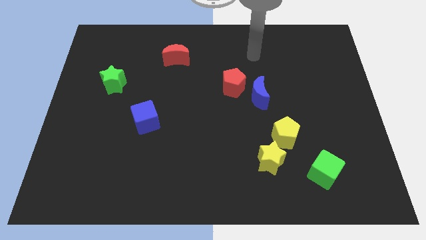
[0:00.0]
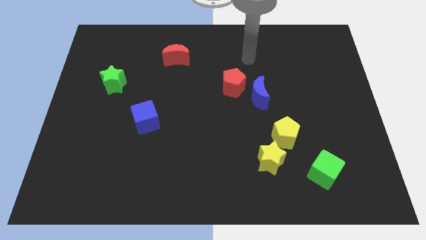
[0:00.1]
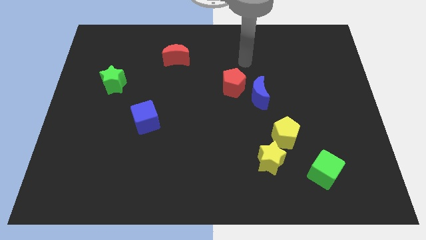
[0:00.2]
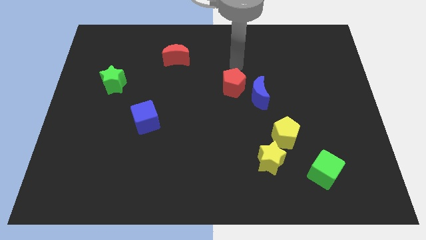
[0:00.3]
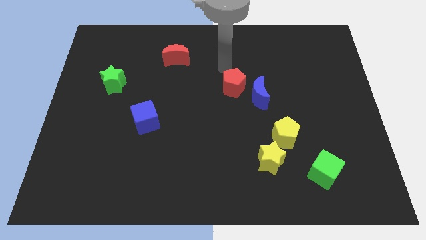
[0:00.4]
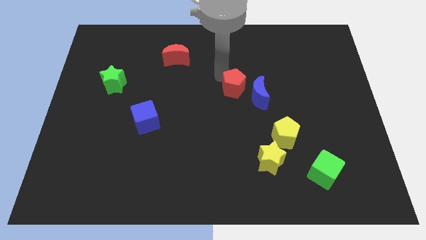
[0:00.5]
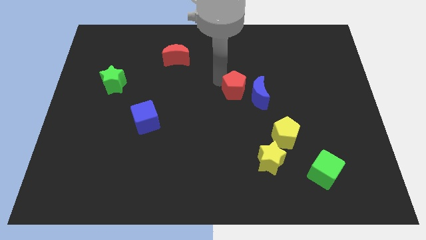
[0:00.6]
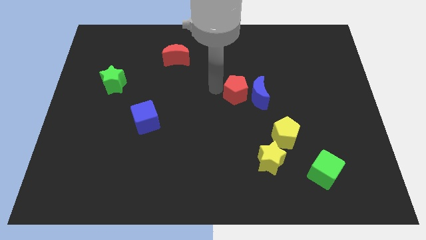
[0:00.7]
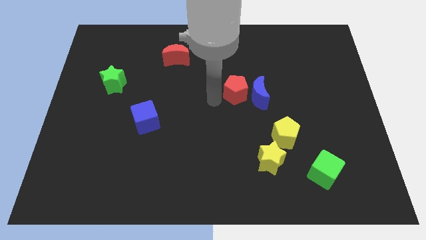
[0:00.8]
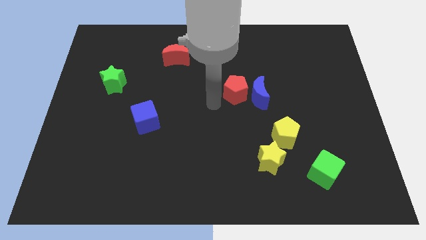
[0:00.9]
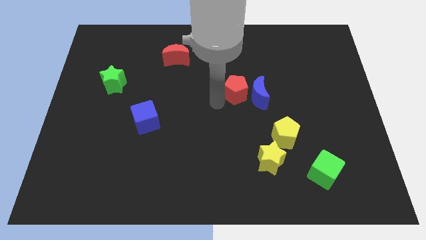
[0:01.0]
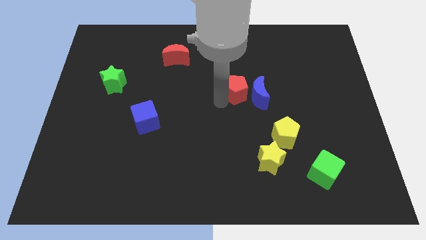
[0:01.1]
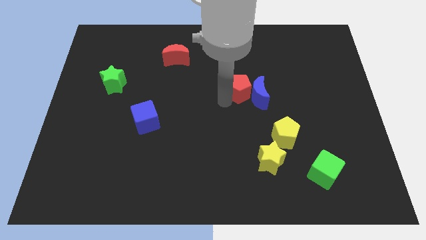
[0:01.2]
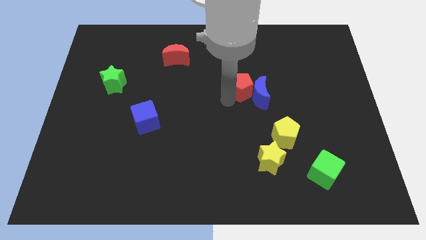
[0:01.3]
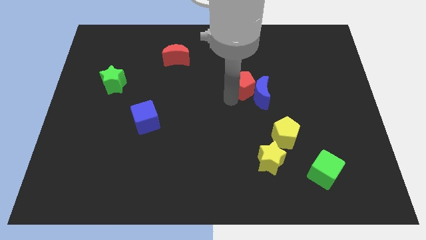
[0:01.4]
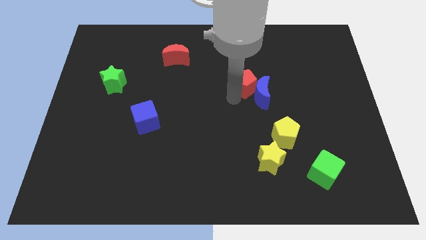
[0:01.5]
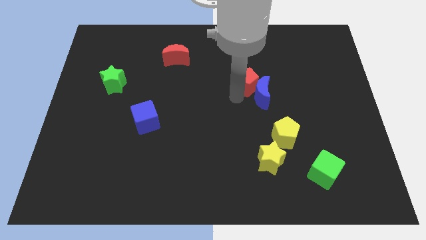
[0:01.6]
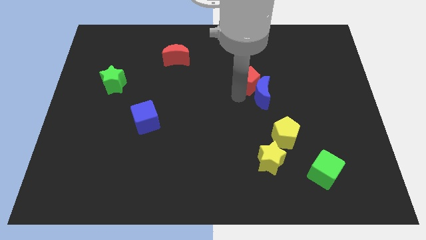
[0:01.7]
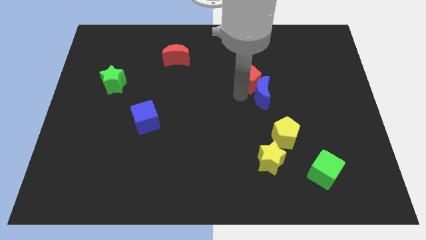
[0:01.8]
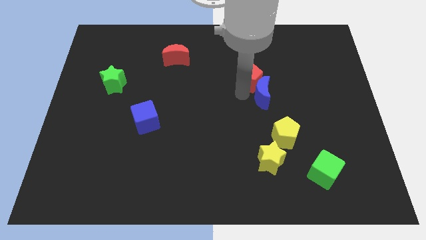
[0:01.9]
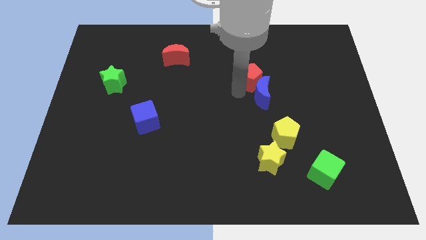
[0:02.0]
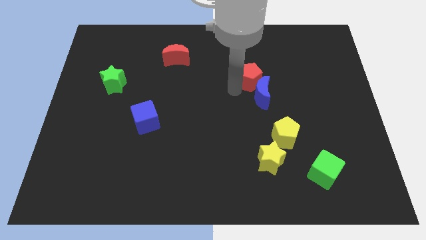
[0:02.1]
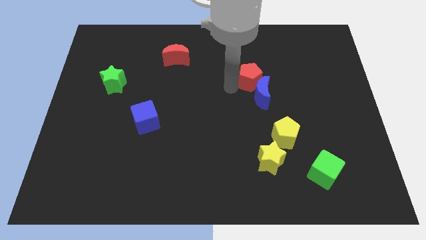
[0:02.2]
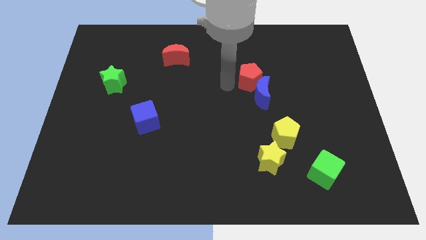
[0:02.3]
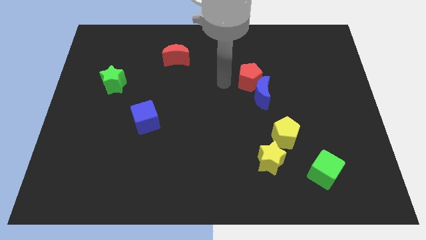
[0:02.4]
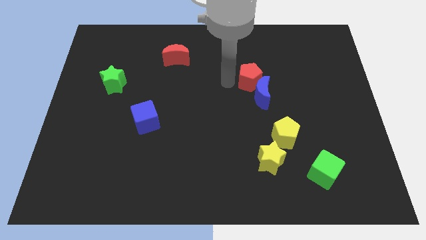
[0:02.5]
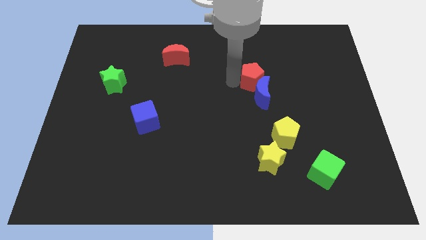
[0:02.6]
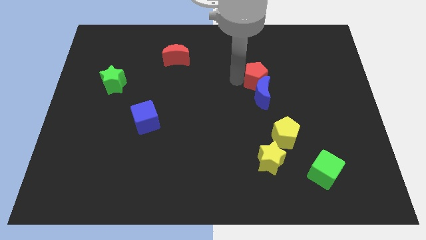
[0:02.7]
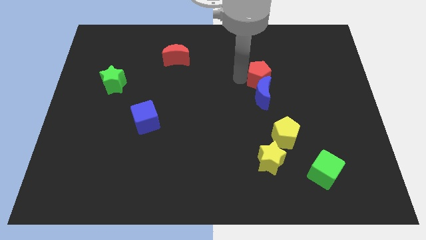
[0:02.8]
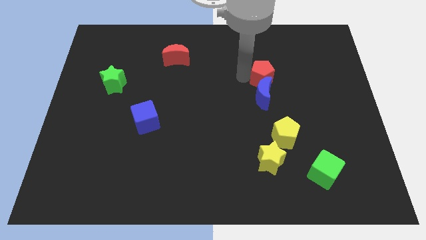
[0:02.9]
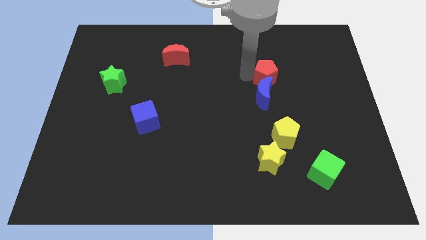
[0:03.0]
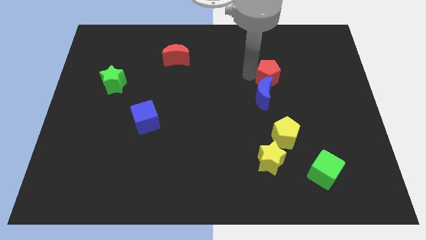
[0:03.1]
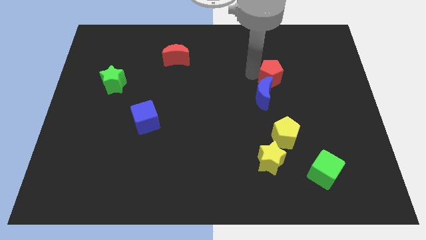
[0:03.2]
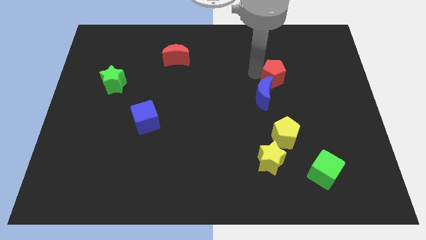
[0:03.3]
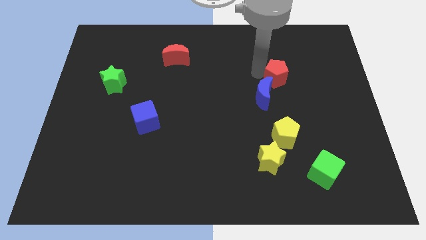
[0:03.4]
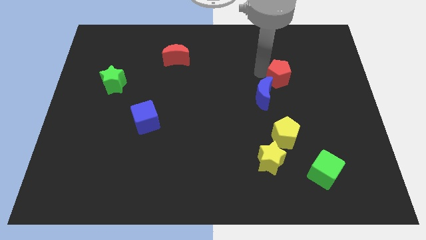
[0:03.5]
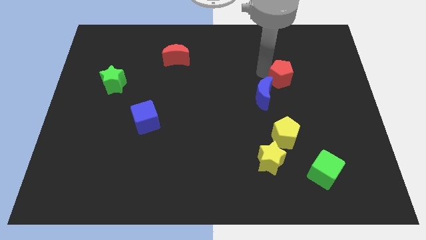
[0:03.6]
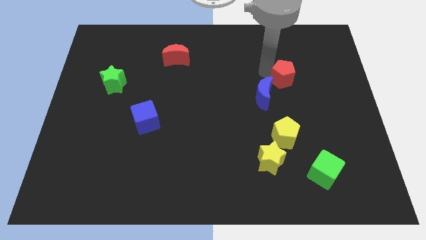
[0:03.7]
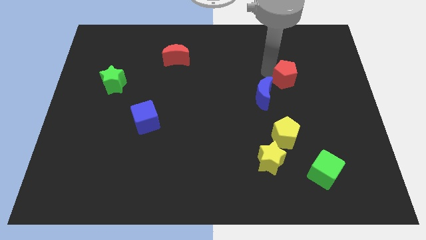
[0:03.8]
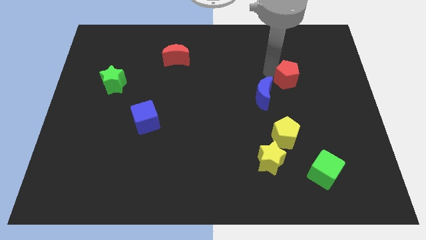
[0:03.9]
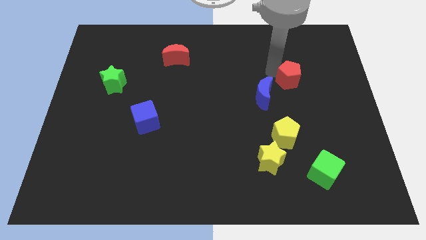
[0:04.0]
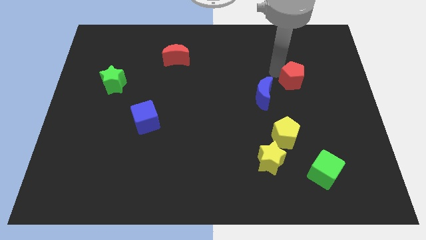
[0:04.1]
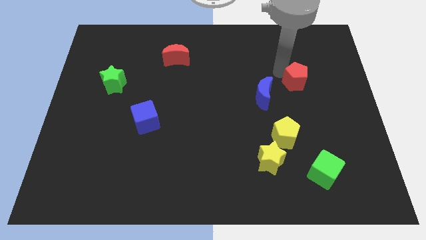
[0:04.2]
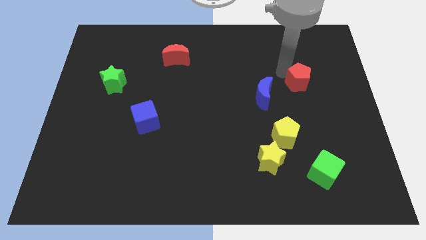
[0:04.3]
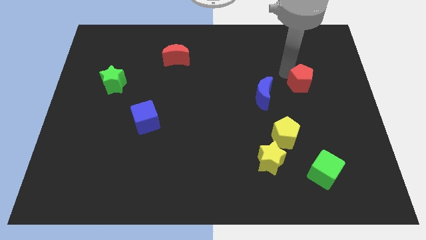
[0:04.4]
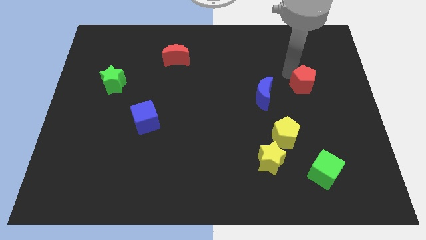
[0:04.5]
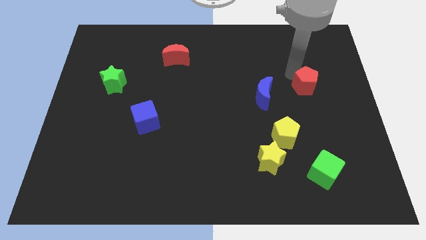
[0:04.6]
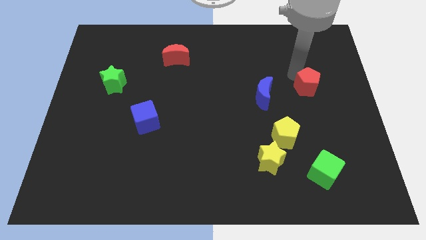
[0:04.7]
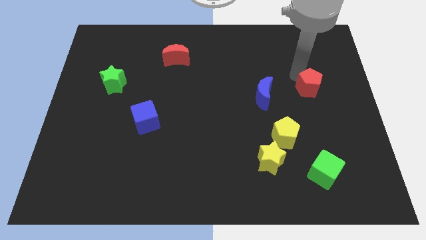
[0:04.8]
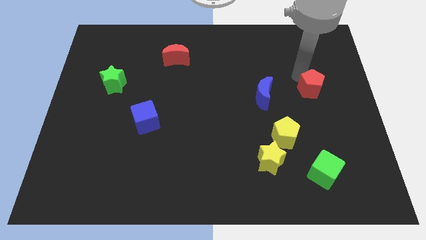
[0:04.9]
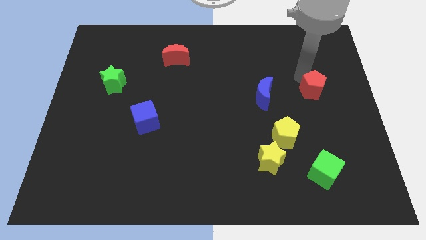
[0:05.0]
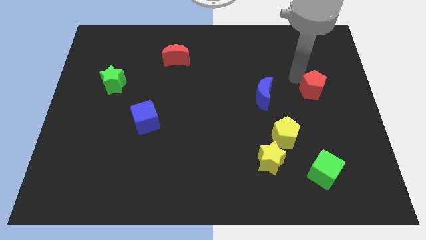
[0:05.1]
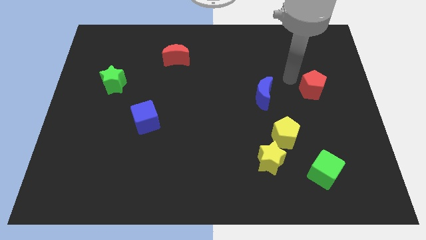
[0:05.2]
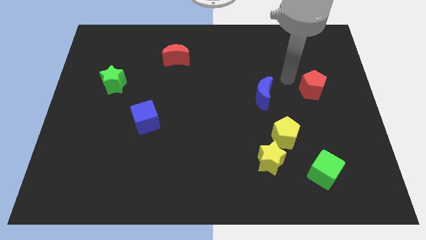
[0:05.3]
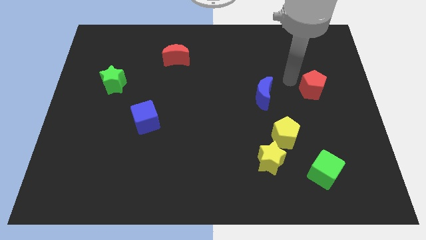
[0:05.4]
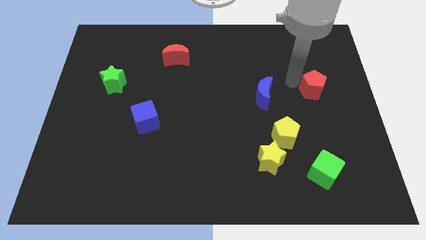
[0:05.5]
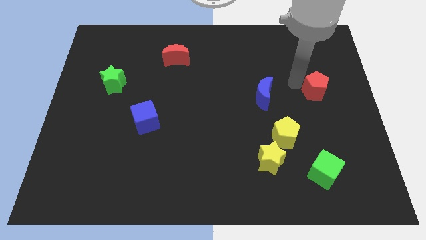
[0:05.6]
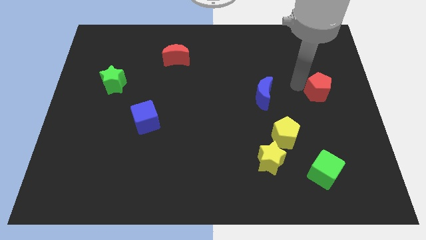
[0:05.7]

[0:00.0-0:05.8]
slide the red pentagon to the center right

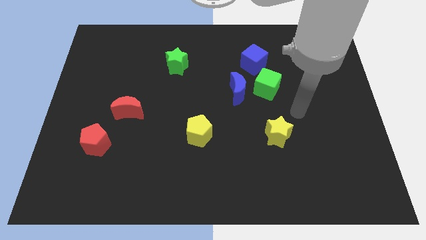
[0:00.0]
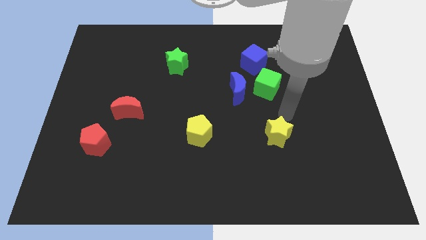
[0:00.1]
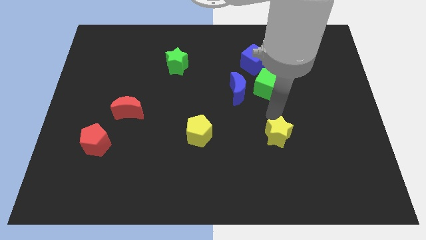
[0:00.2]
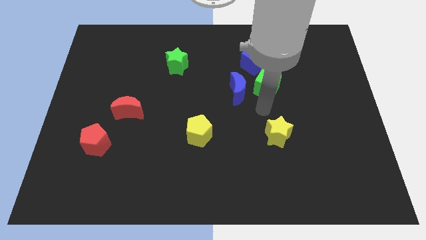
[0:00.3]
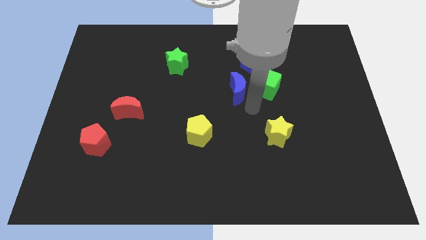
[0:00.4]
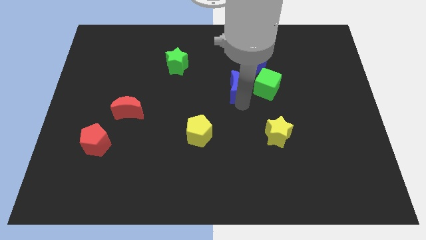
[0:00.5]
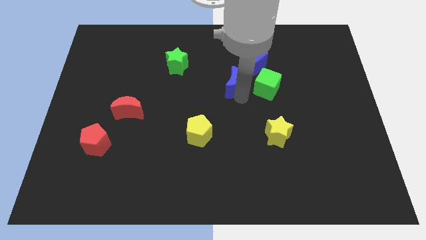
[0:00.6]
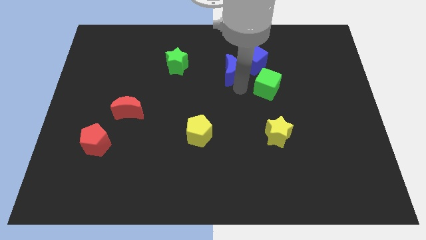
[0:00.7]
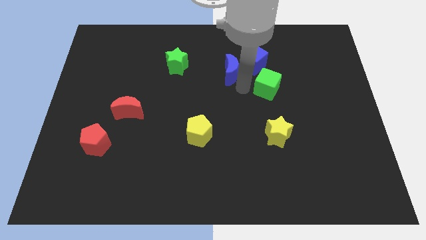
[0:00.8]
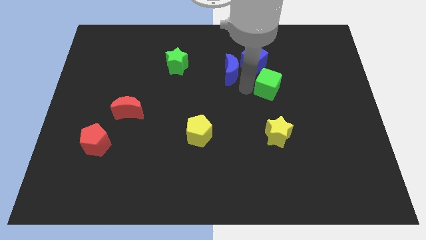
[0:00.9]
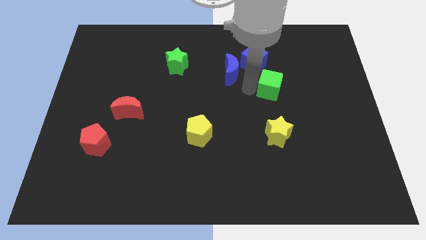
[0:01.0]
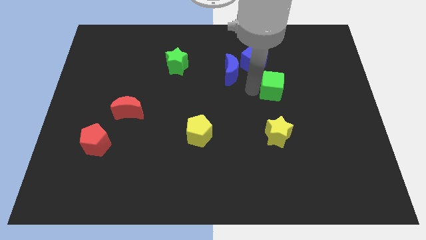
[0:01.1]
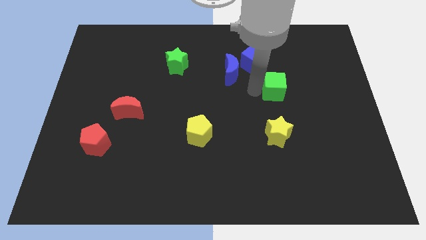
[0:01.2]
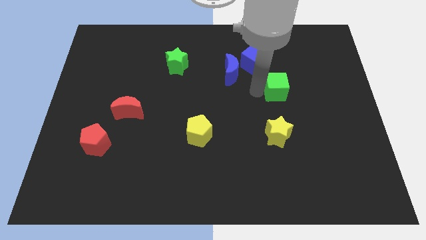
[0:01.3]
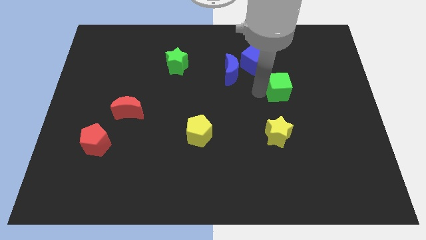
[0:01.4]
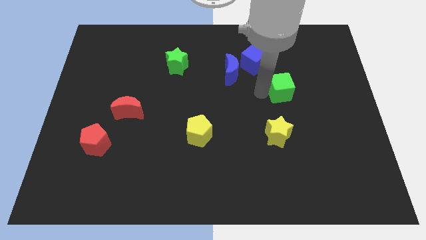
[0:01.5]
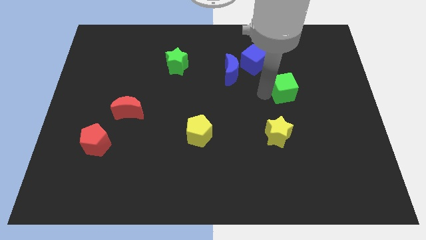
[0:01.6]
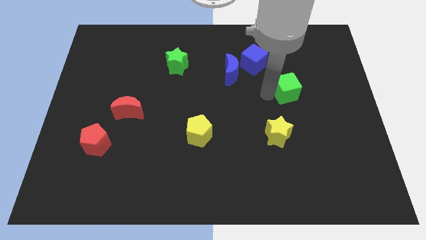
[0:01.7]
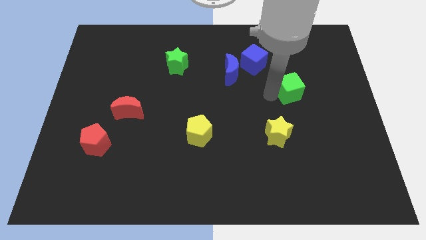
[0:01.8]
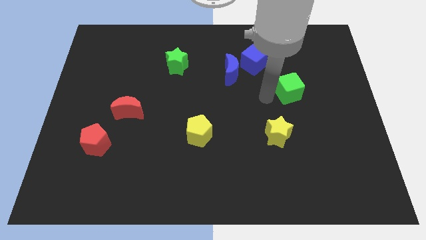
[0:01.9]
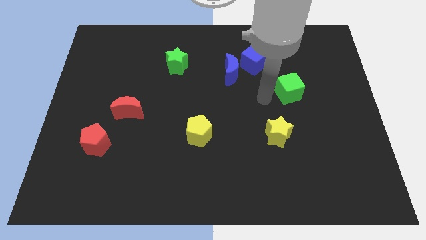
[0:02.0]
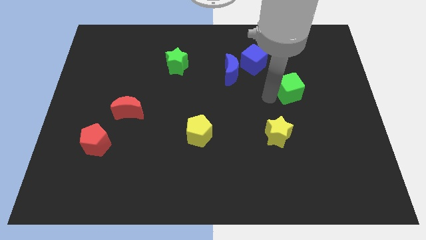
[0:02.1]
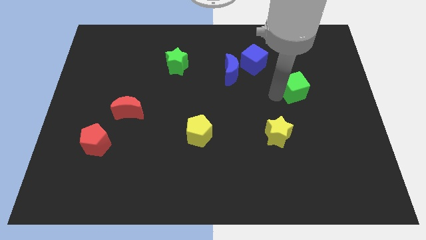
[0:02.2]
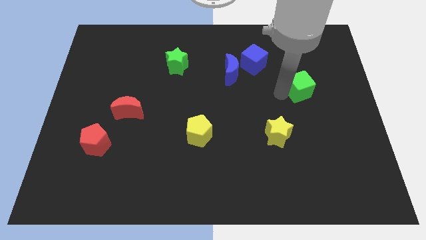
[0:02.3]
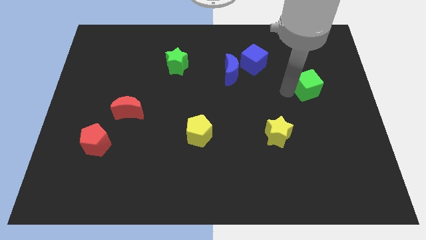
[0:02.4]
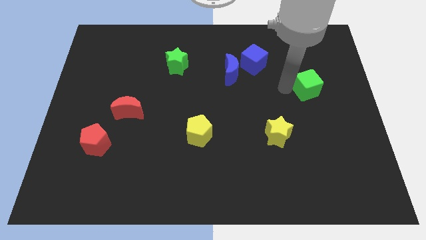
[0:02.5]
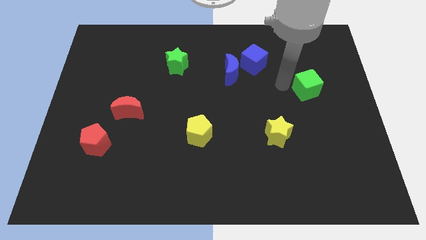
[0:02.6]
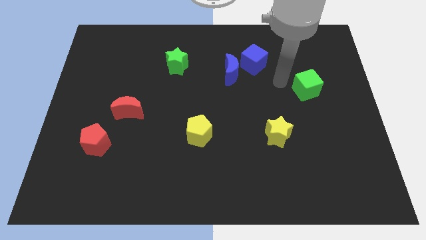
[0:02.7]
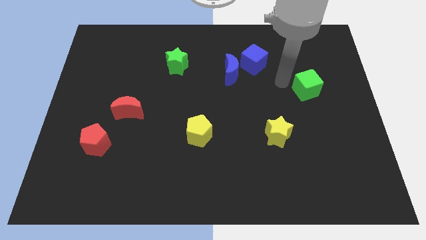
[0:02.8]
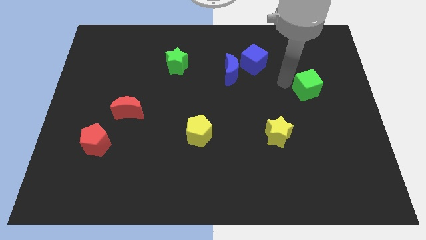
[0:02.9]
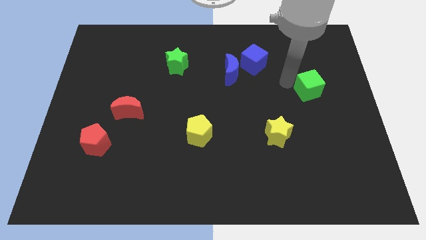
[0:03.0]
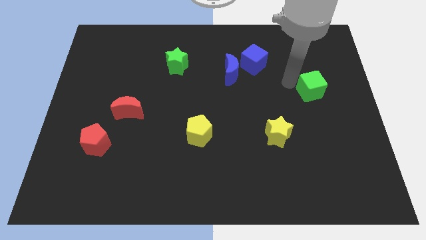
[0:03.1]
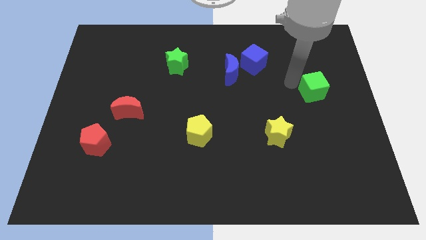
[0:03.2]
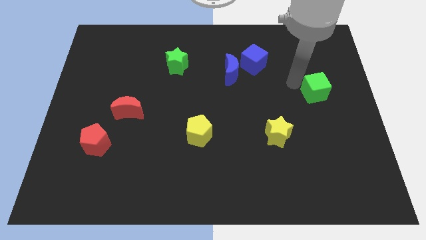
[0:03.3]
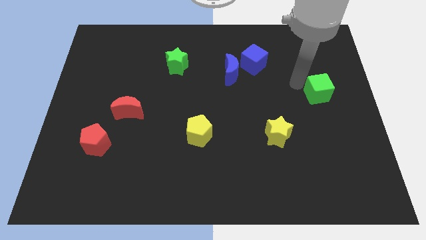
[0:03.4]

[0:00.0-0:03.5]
move the green cube to the right side
